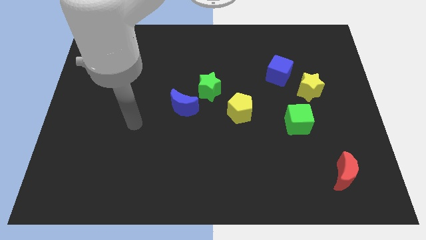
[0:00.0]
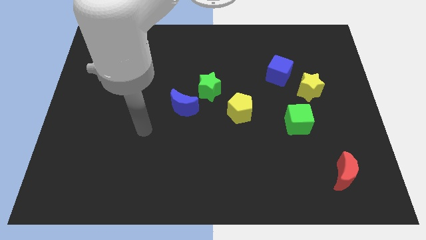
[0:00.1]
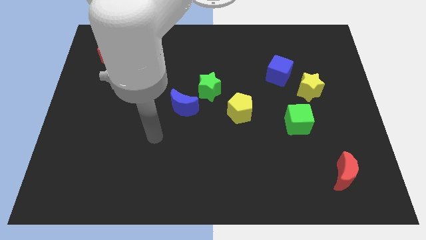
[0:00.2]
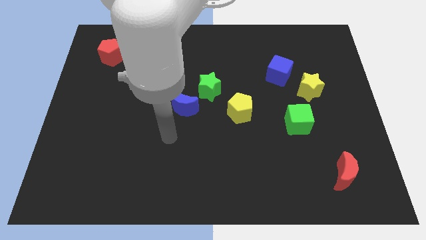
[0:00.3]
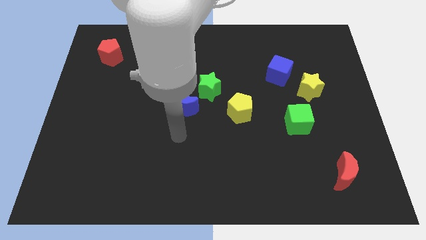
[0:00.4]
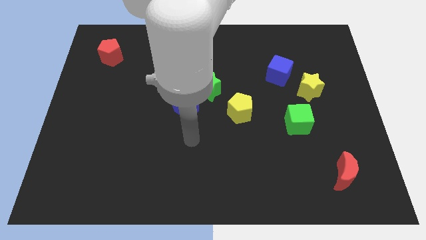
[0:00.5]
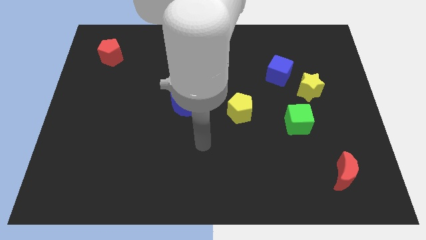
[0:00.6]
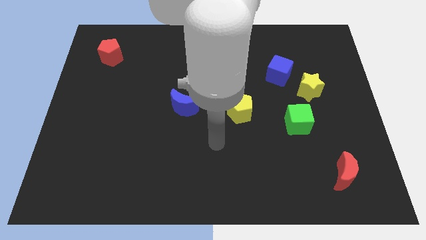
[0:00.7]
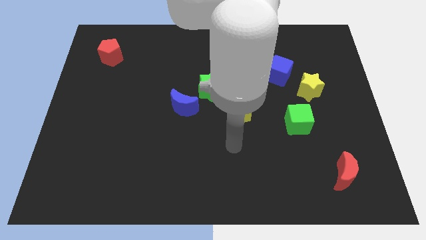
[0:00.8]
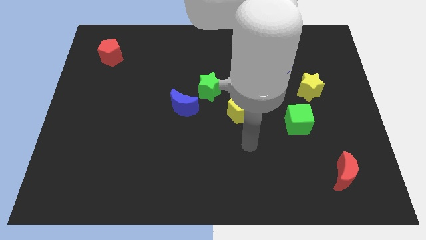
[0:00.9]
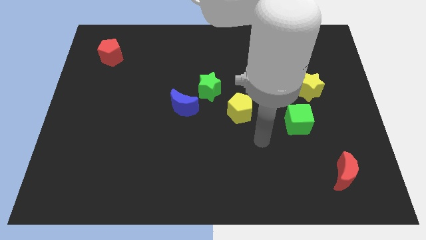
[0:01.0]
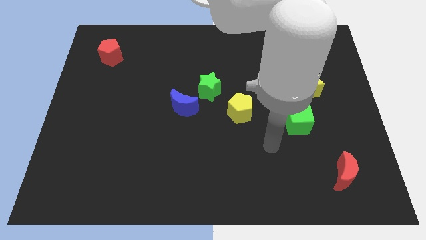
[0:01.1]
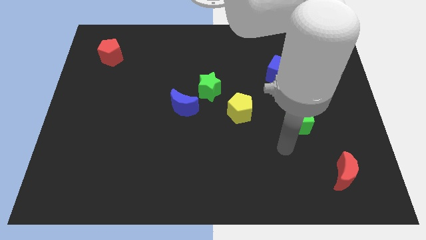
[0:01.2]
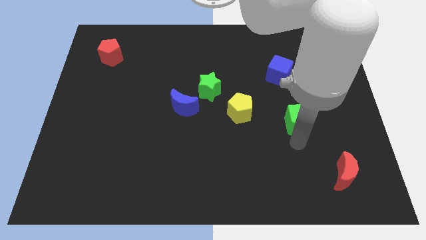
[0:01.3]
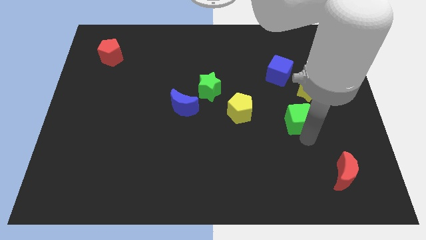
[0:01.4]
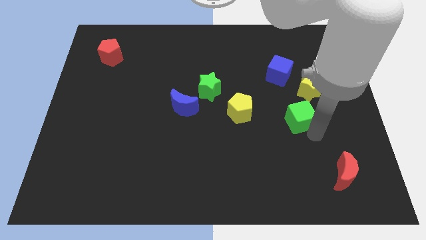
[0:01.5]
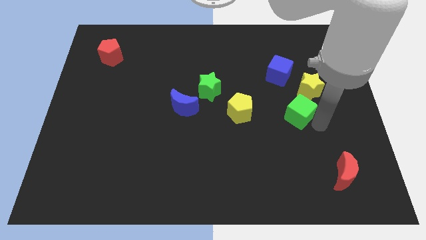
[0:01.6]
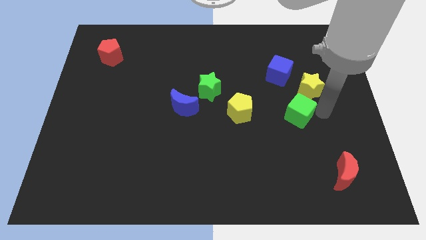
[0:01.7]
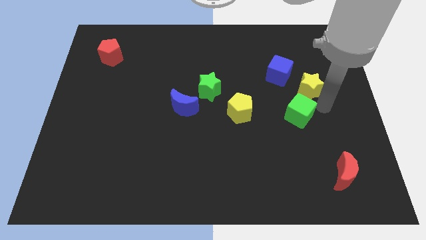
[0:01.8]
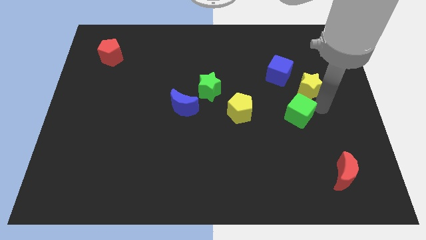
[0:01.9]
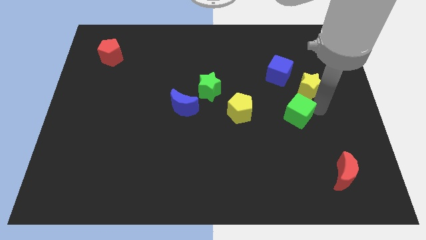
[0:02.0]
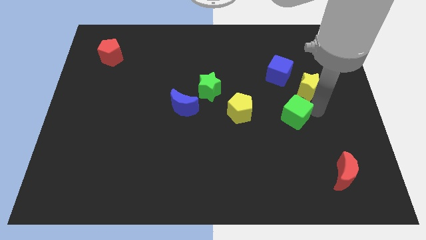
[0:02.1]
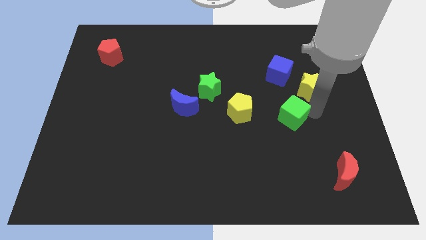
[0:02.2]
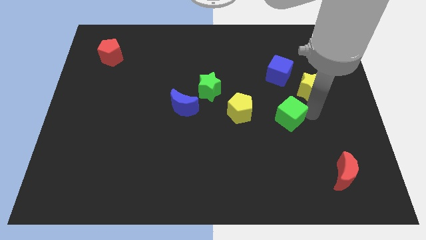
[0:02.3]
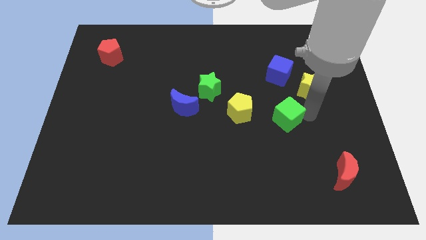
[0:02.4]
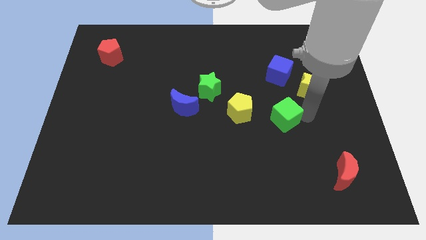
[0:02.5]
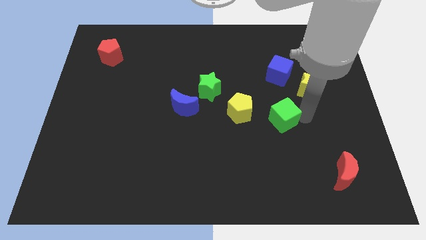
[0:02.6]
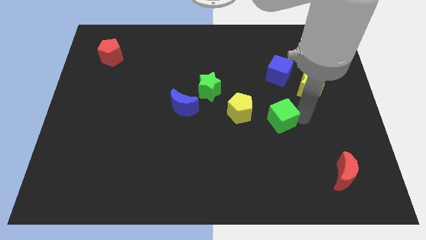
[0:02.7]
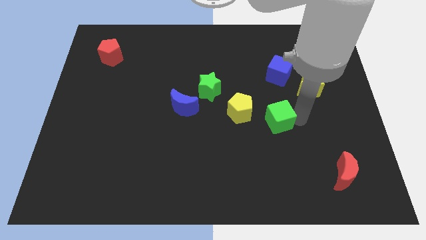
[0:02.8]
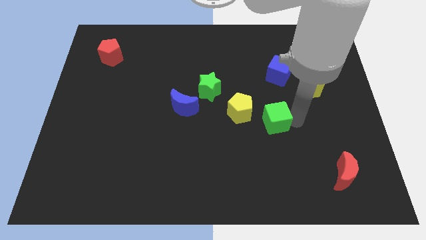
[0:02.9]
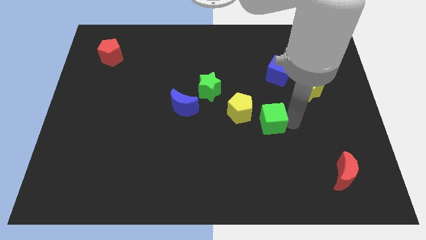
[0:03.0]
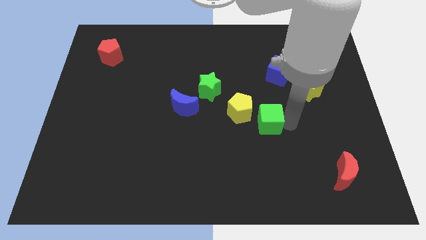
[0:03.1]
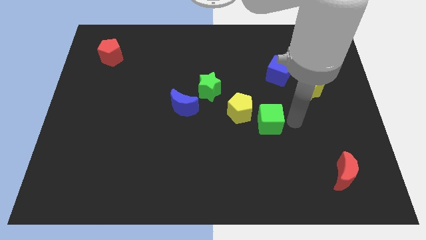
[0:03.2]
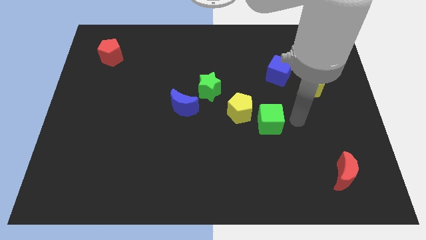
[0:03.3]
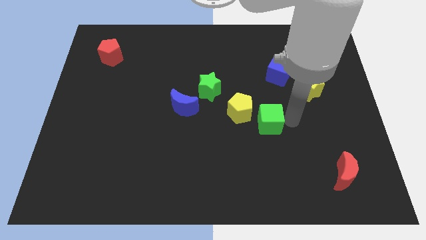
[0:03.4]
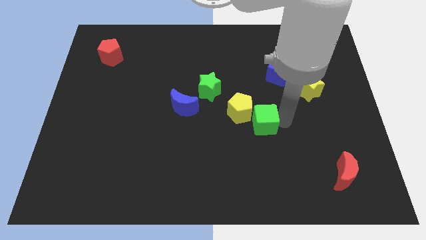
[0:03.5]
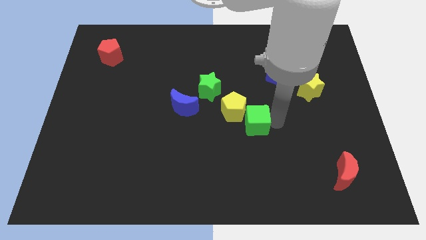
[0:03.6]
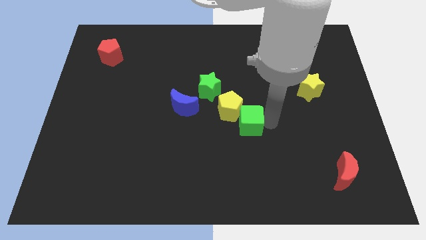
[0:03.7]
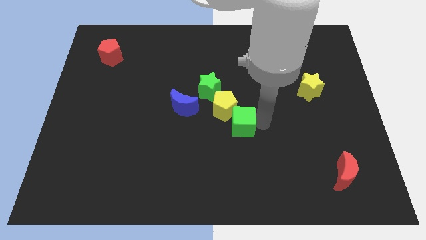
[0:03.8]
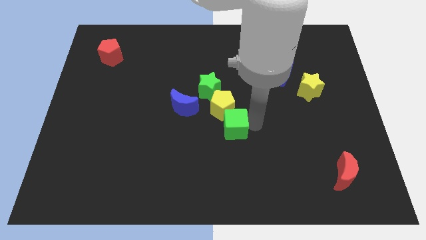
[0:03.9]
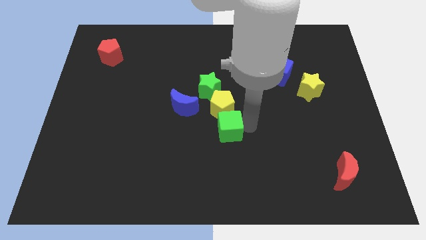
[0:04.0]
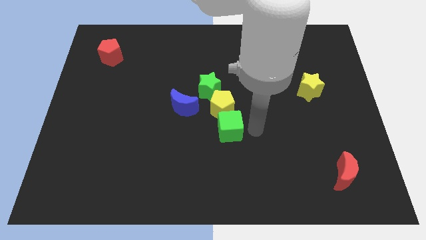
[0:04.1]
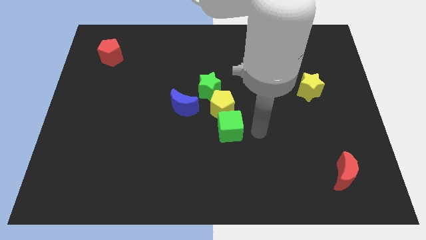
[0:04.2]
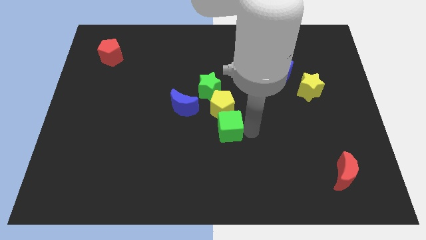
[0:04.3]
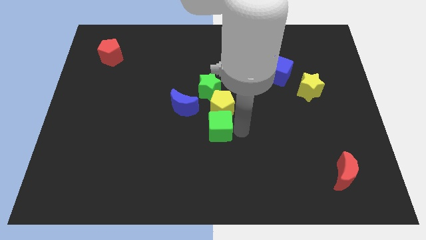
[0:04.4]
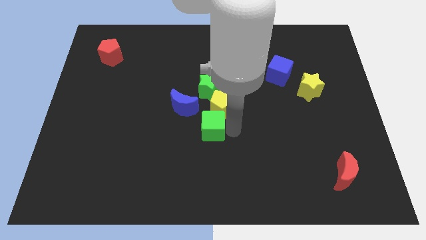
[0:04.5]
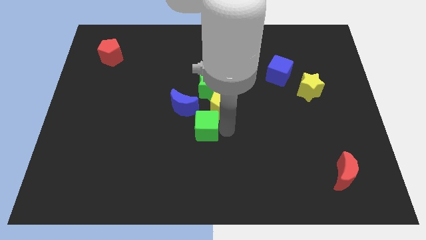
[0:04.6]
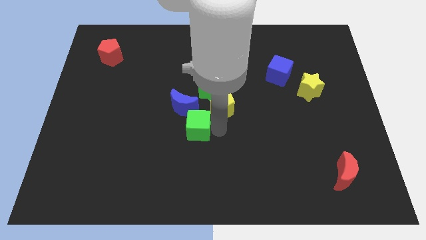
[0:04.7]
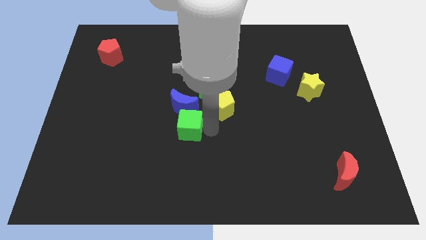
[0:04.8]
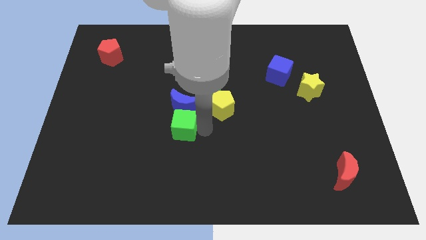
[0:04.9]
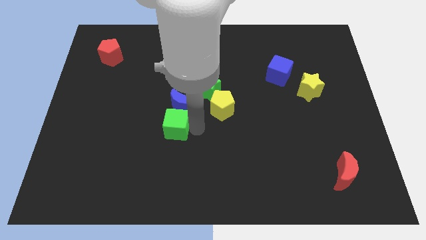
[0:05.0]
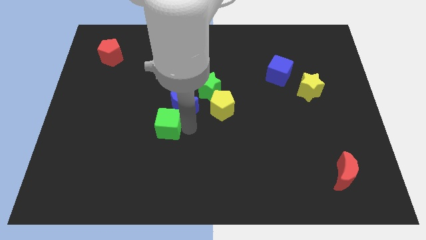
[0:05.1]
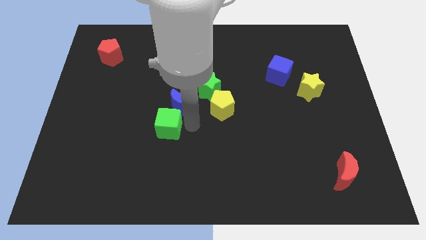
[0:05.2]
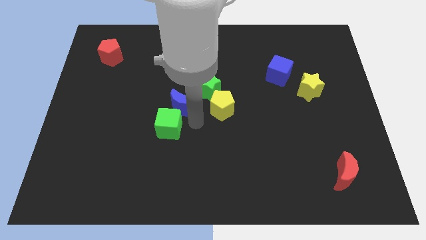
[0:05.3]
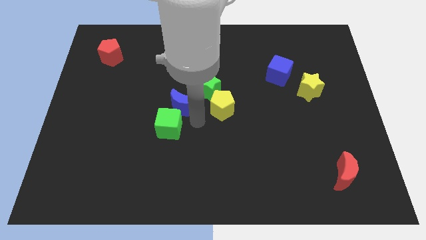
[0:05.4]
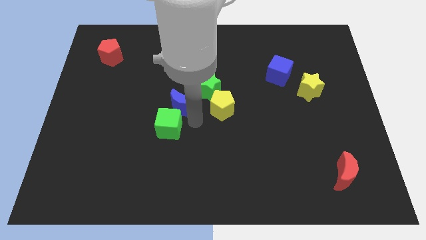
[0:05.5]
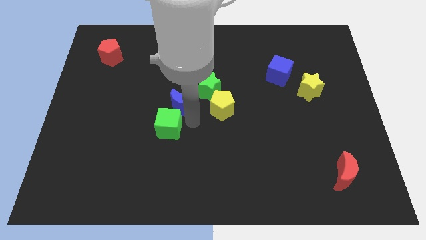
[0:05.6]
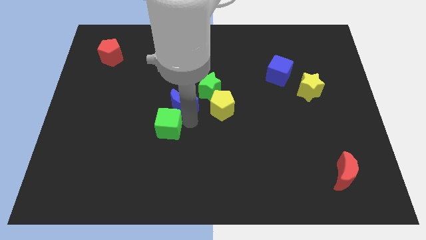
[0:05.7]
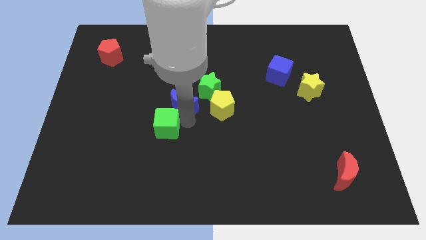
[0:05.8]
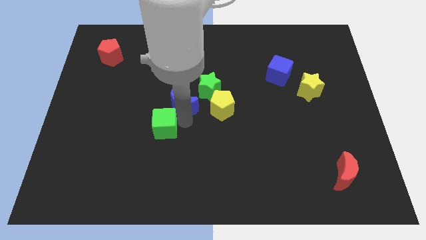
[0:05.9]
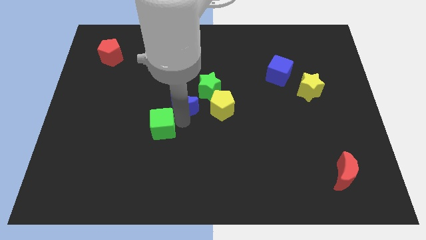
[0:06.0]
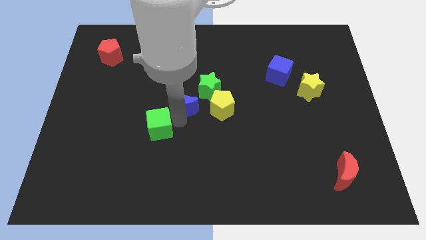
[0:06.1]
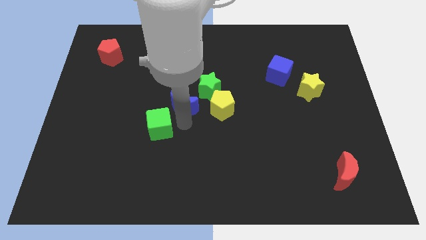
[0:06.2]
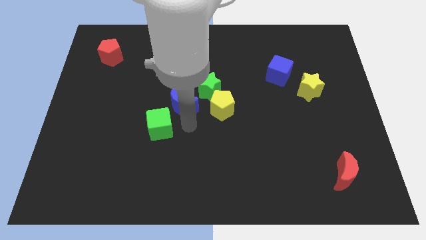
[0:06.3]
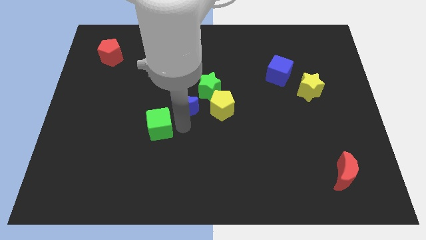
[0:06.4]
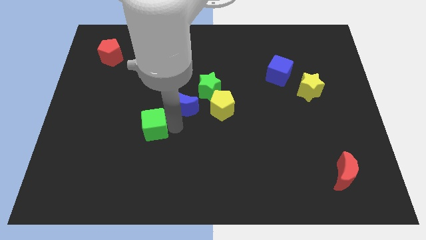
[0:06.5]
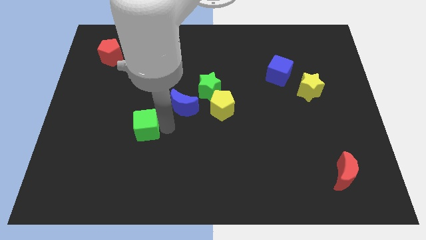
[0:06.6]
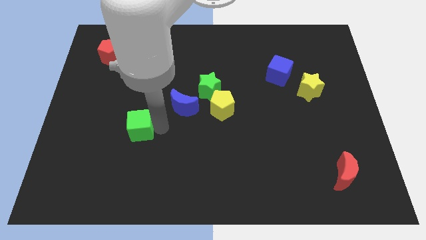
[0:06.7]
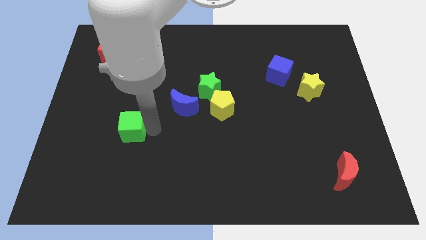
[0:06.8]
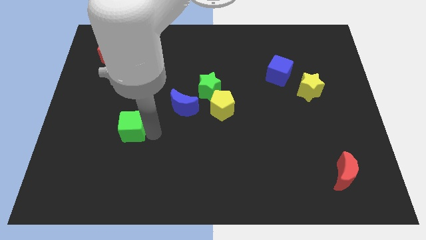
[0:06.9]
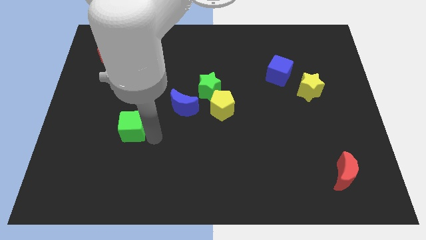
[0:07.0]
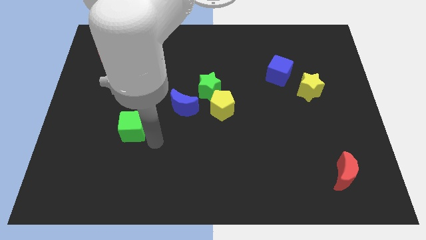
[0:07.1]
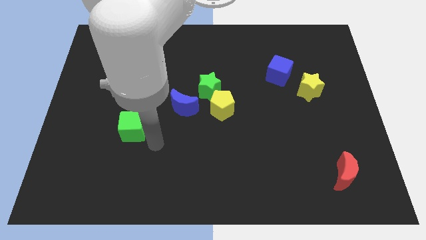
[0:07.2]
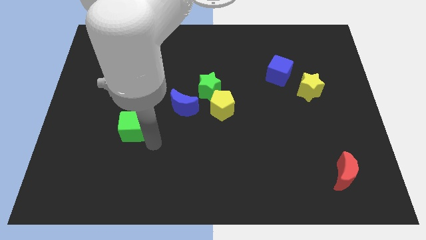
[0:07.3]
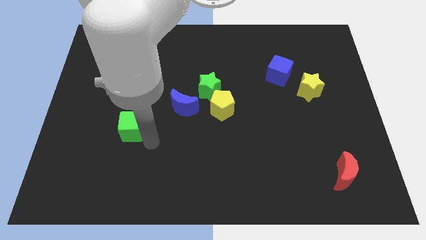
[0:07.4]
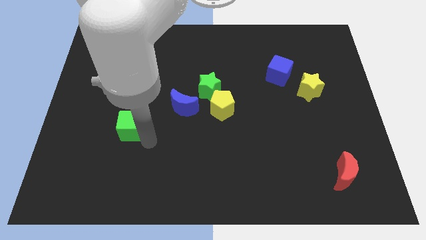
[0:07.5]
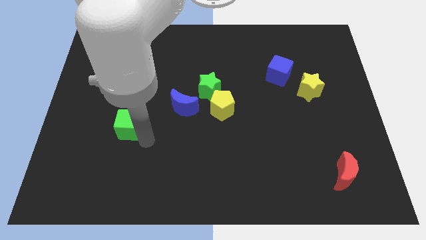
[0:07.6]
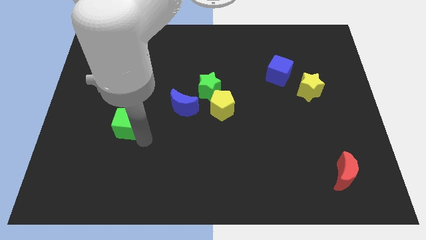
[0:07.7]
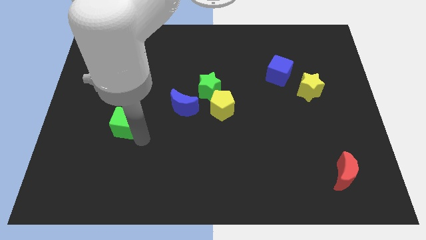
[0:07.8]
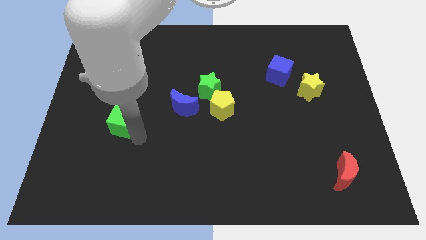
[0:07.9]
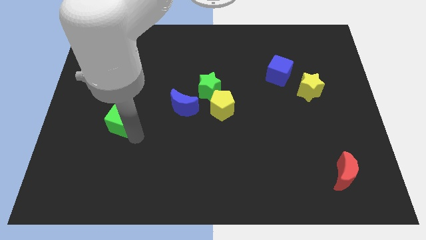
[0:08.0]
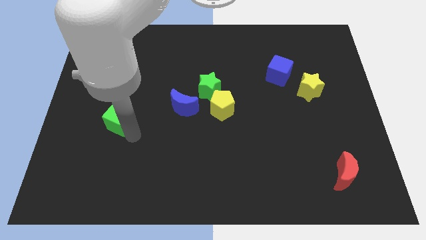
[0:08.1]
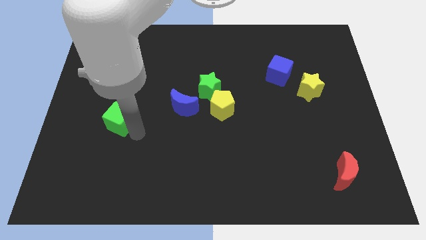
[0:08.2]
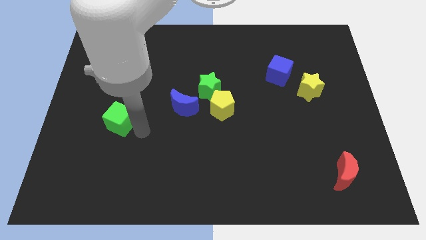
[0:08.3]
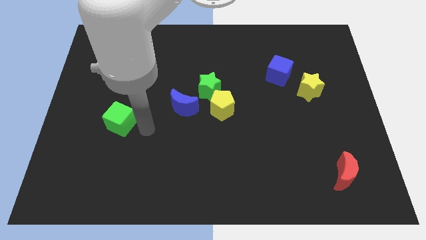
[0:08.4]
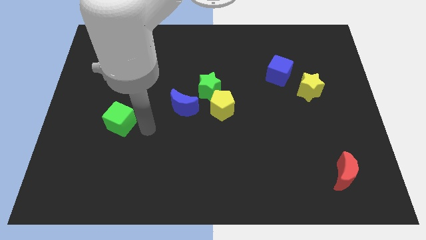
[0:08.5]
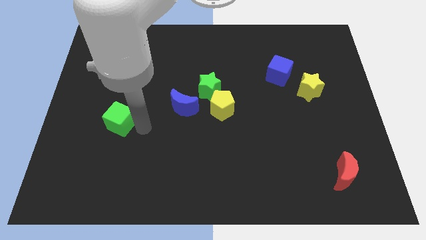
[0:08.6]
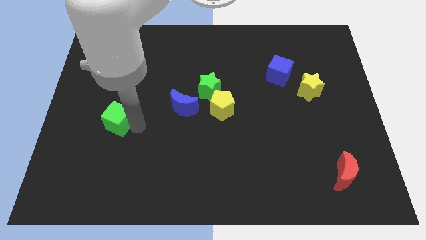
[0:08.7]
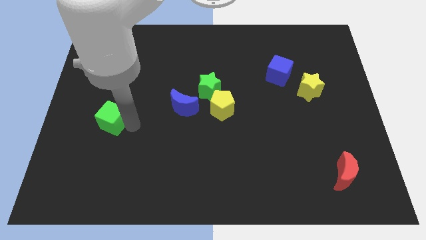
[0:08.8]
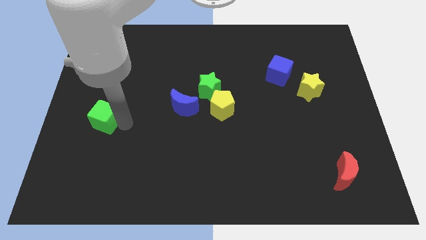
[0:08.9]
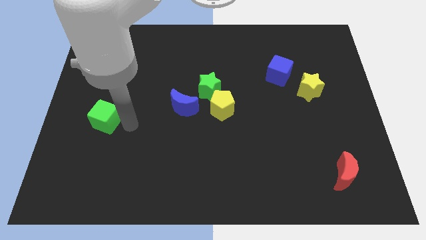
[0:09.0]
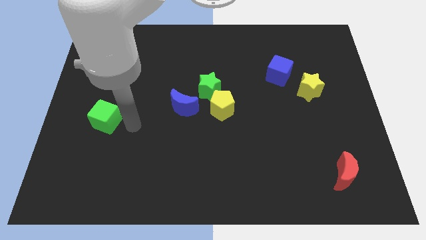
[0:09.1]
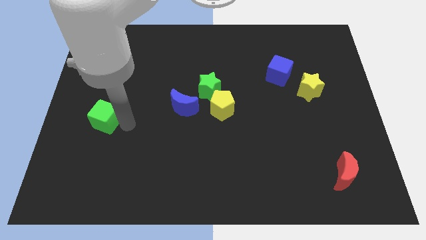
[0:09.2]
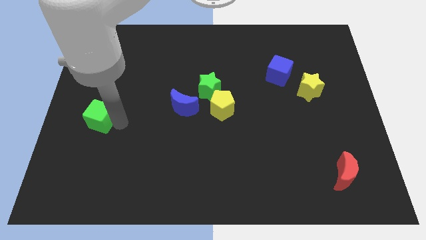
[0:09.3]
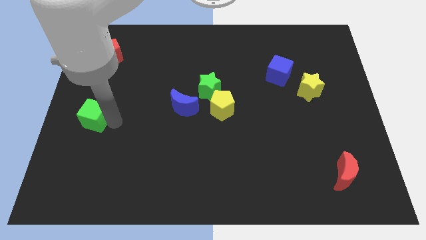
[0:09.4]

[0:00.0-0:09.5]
move the green cube to the left side of the board
